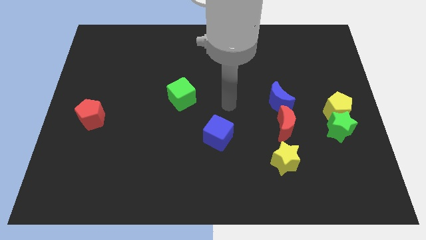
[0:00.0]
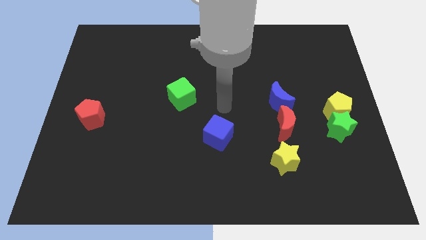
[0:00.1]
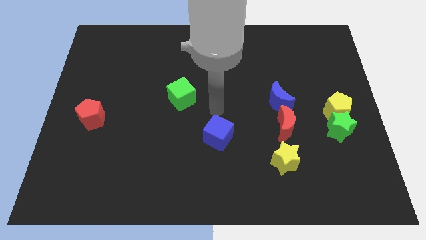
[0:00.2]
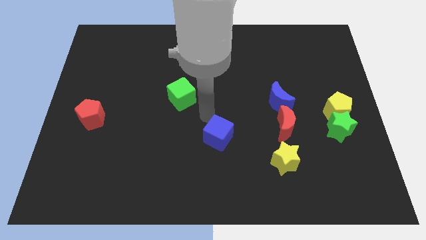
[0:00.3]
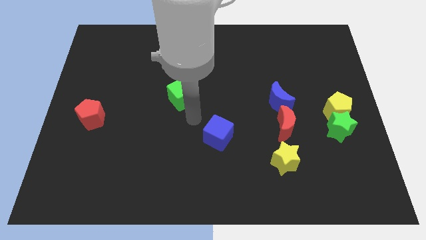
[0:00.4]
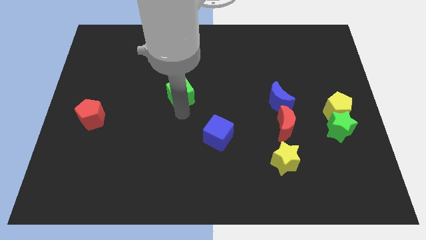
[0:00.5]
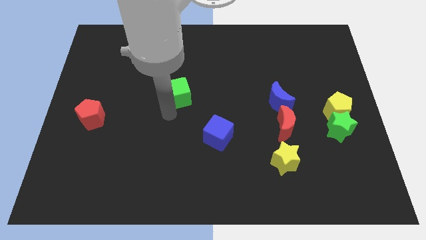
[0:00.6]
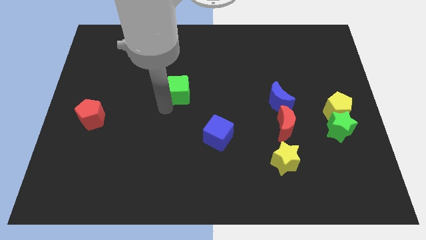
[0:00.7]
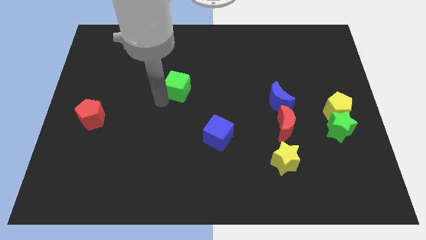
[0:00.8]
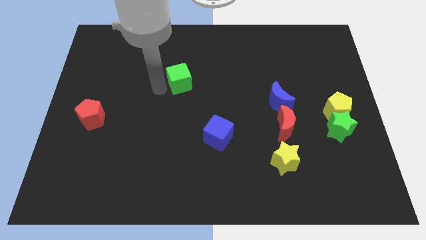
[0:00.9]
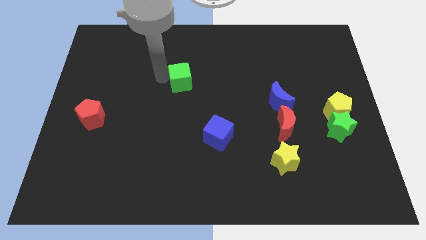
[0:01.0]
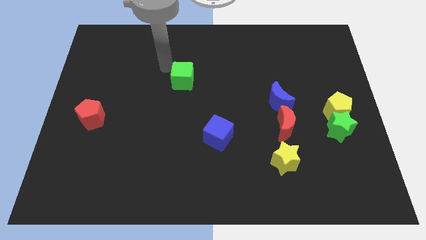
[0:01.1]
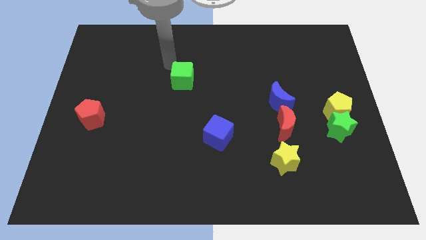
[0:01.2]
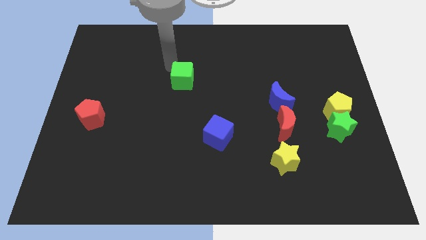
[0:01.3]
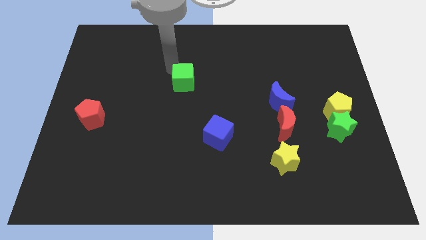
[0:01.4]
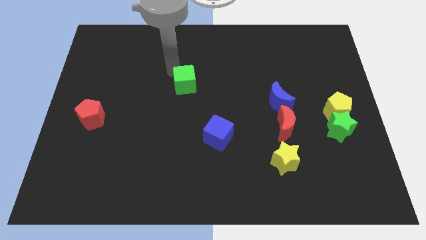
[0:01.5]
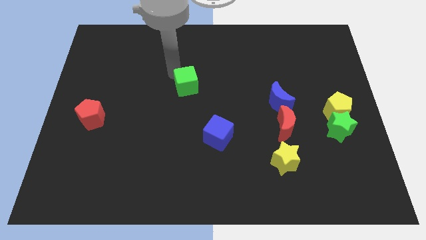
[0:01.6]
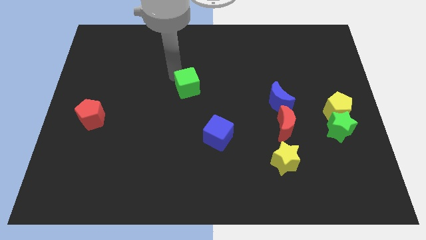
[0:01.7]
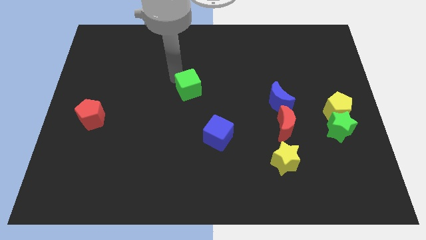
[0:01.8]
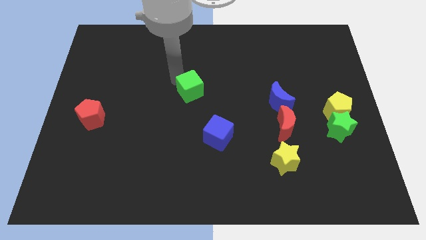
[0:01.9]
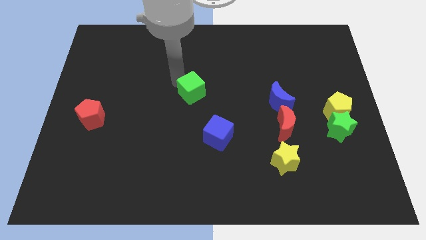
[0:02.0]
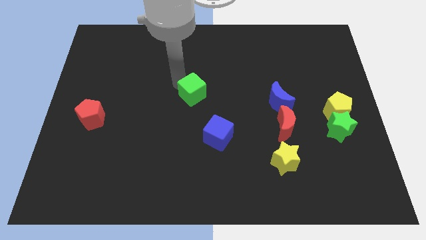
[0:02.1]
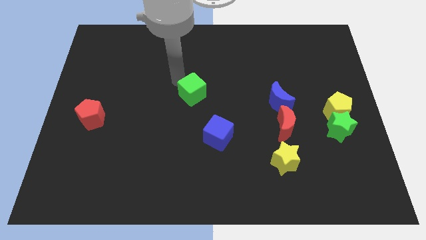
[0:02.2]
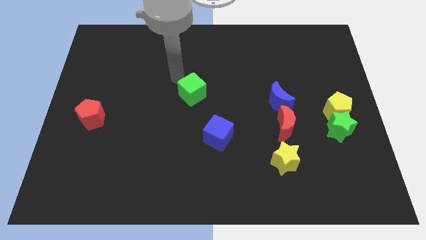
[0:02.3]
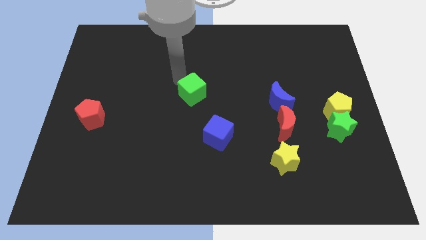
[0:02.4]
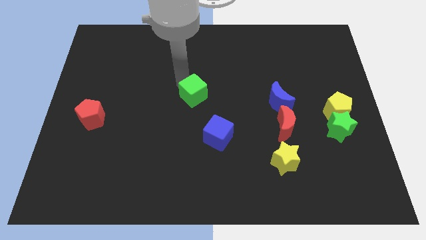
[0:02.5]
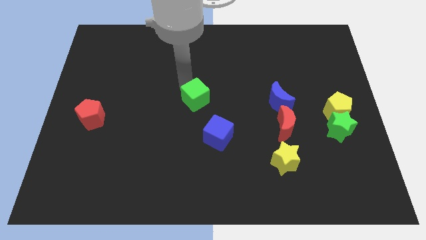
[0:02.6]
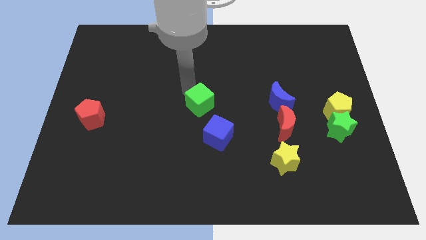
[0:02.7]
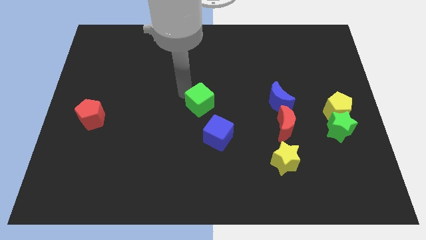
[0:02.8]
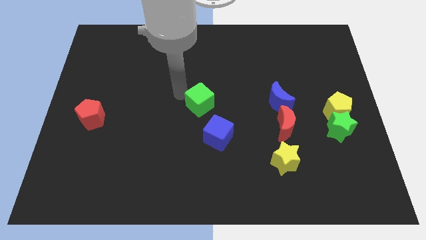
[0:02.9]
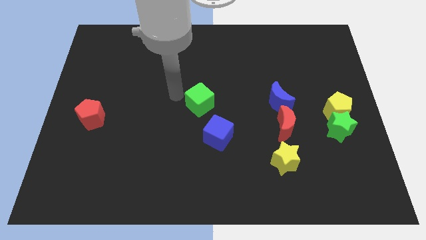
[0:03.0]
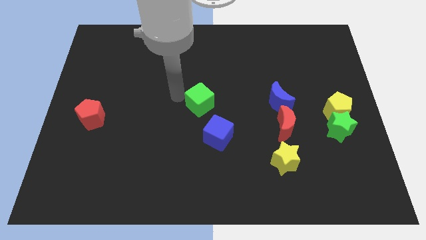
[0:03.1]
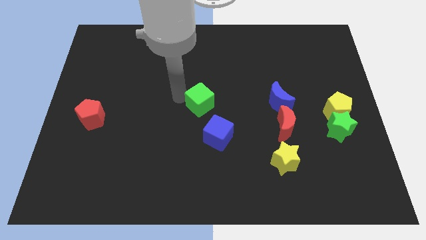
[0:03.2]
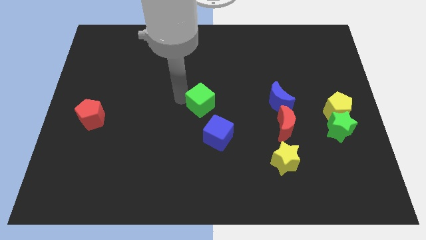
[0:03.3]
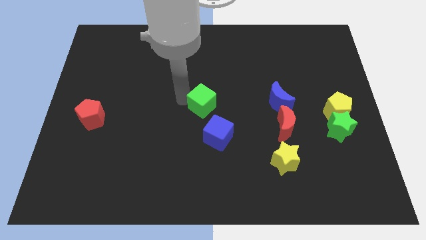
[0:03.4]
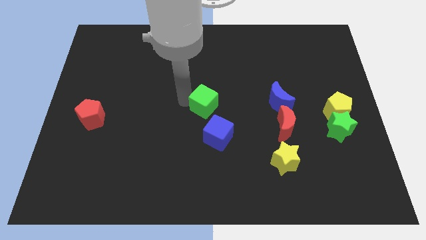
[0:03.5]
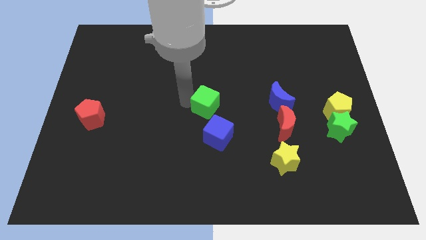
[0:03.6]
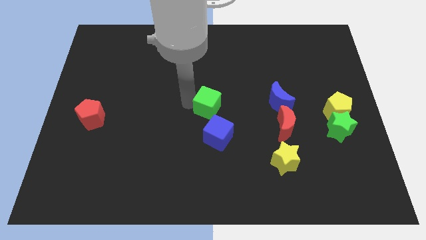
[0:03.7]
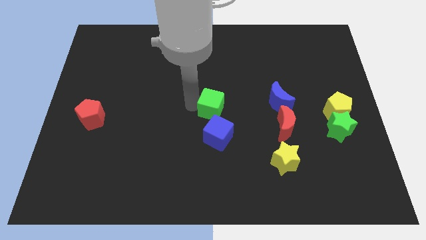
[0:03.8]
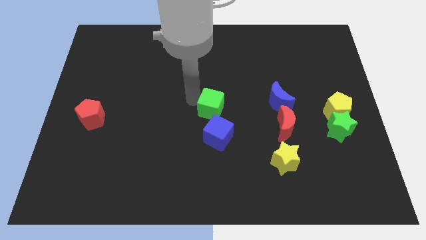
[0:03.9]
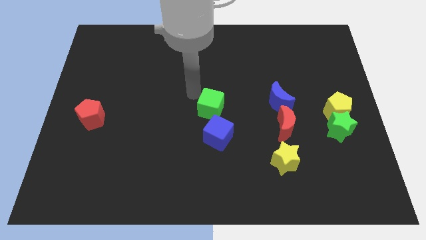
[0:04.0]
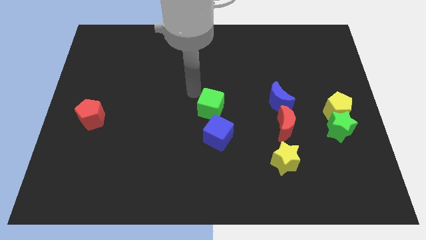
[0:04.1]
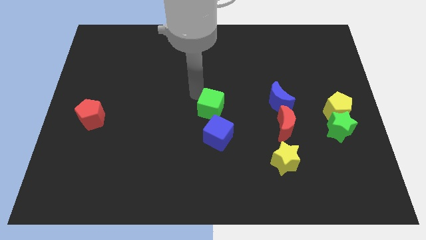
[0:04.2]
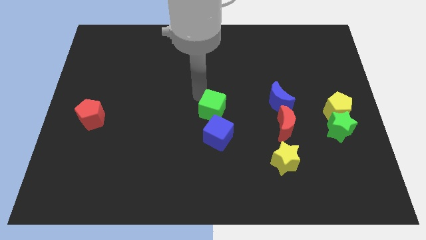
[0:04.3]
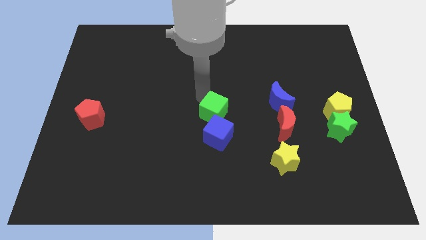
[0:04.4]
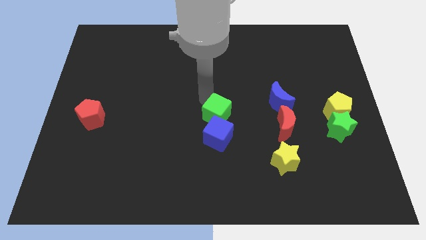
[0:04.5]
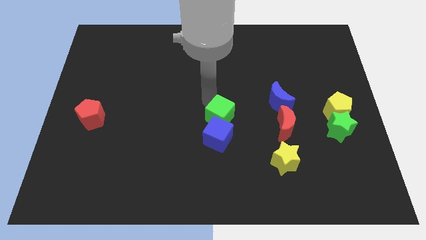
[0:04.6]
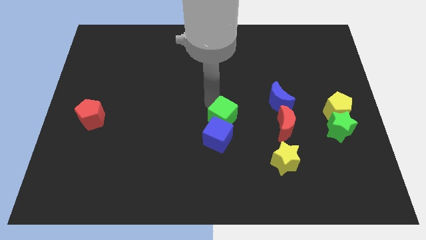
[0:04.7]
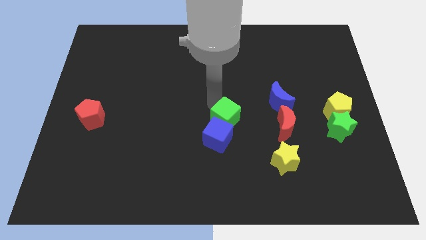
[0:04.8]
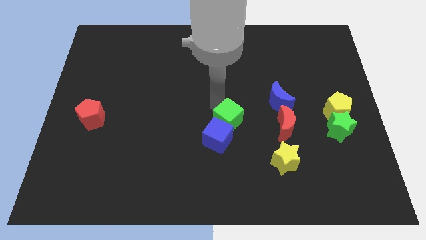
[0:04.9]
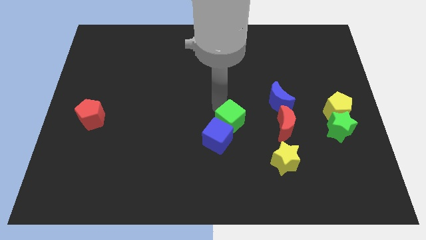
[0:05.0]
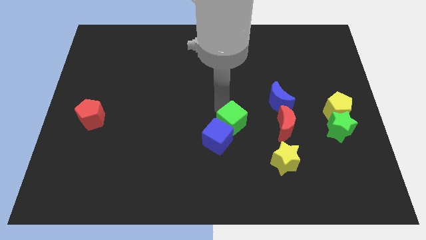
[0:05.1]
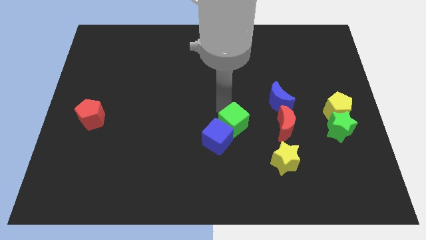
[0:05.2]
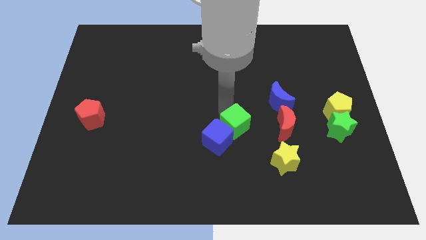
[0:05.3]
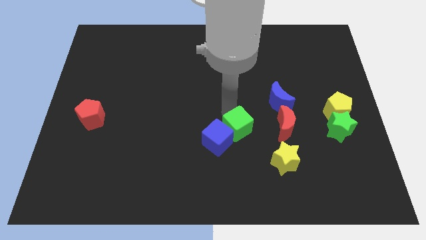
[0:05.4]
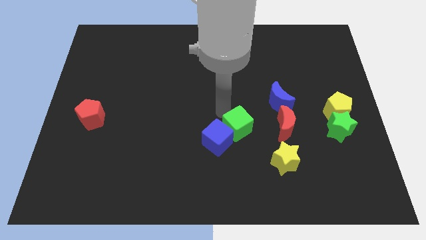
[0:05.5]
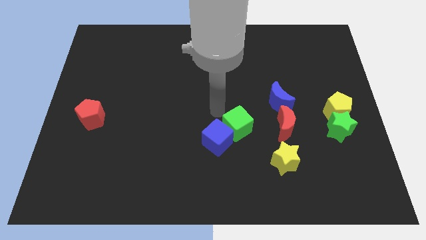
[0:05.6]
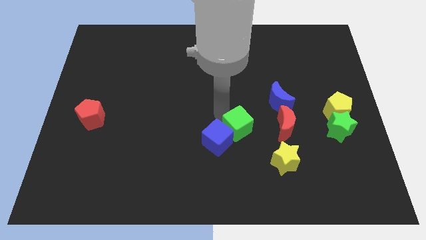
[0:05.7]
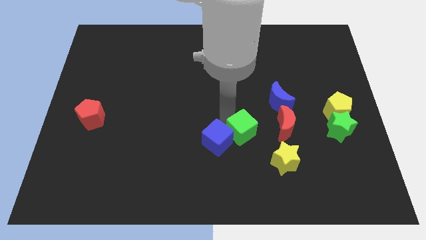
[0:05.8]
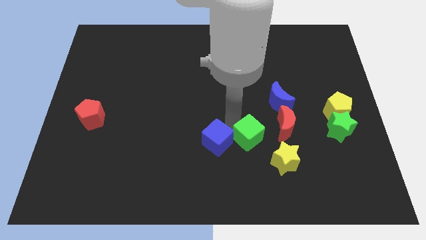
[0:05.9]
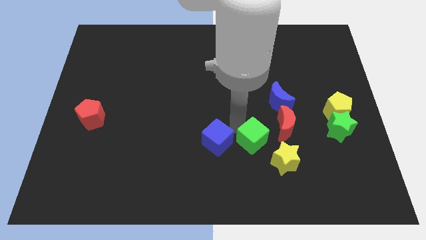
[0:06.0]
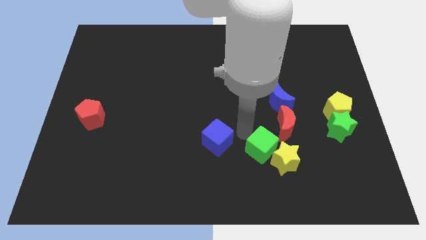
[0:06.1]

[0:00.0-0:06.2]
push the green cube next to the yellow star

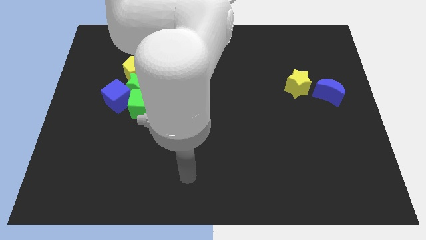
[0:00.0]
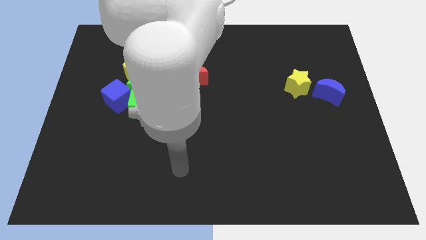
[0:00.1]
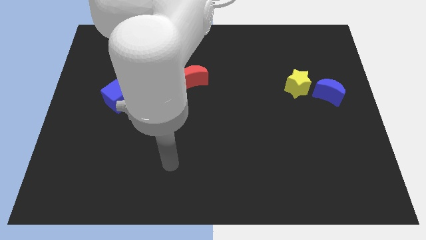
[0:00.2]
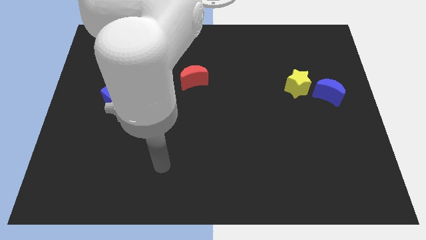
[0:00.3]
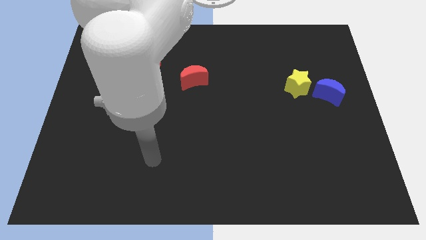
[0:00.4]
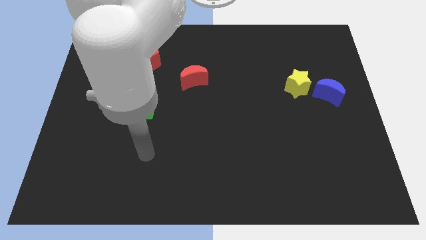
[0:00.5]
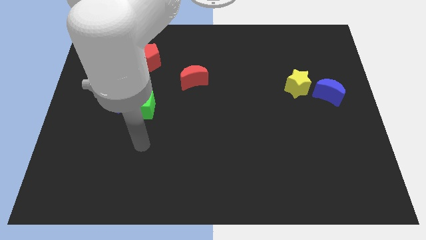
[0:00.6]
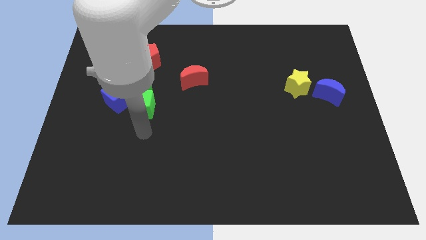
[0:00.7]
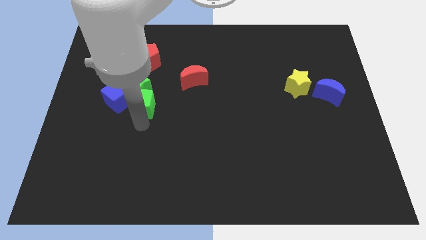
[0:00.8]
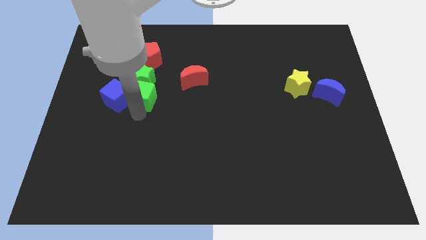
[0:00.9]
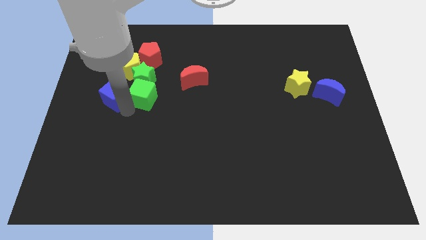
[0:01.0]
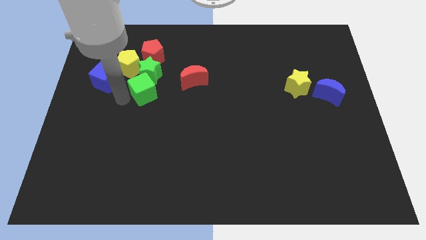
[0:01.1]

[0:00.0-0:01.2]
slide the green star next to the red pentagon
